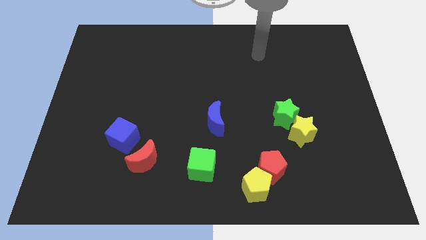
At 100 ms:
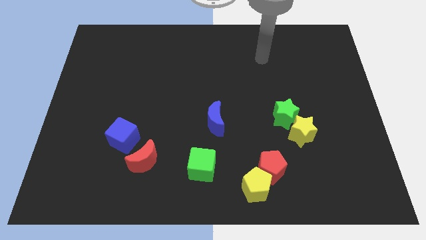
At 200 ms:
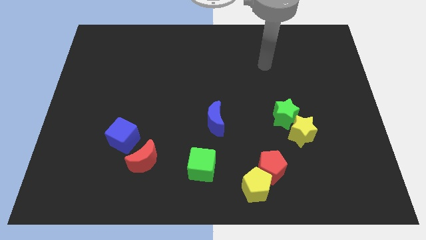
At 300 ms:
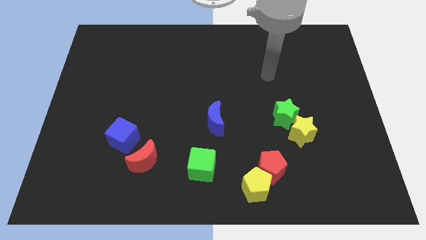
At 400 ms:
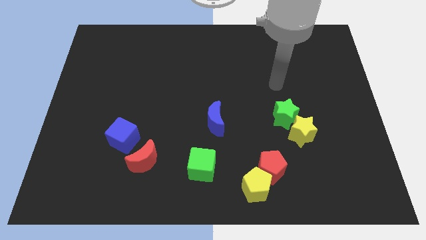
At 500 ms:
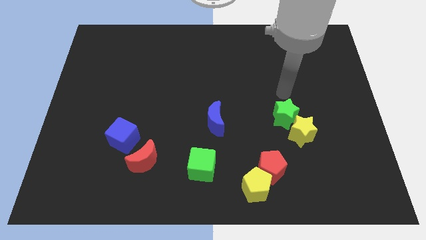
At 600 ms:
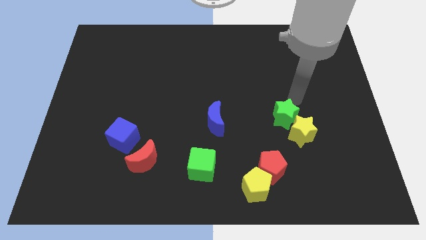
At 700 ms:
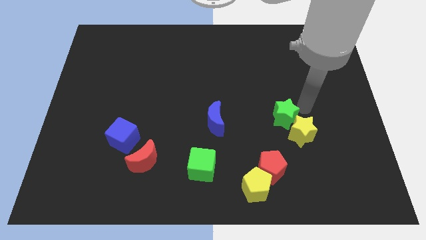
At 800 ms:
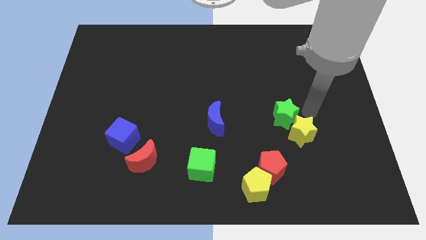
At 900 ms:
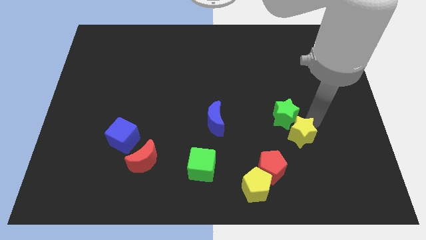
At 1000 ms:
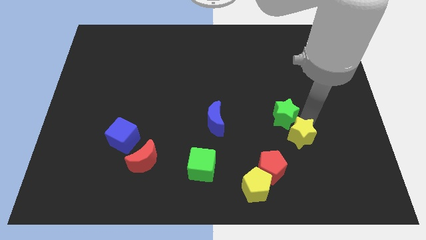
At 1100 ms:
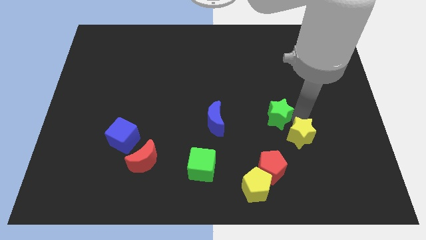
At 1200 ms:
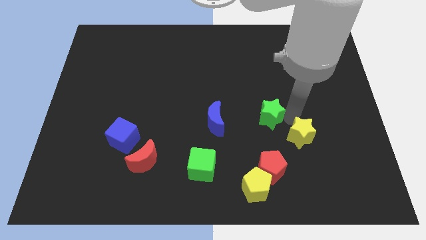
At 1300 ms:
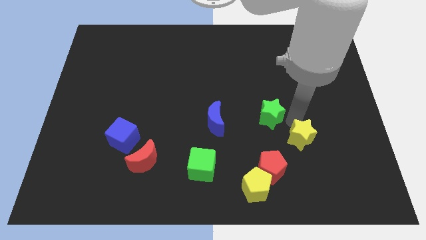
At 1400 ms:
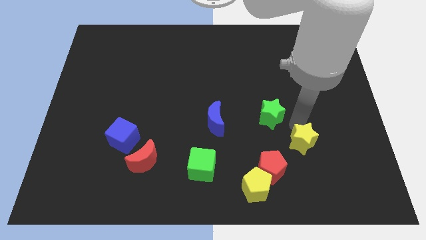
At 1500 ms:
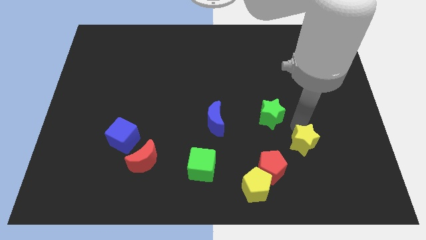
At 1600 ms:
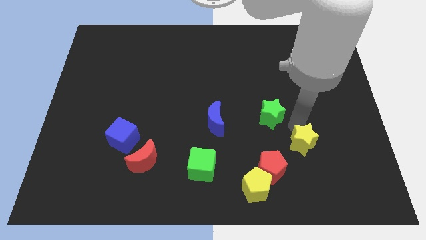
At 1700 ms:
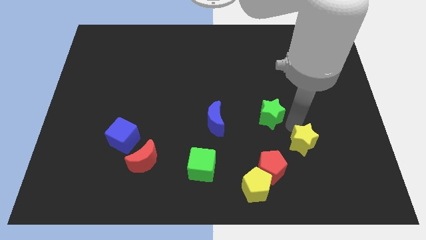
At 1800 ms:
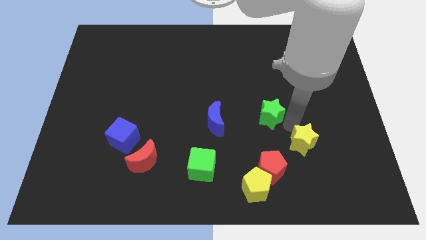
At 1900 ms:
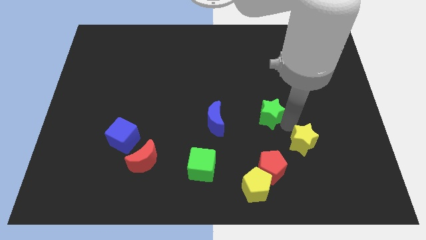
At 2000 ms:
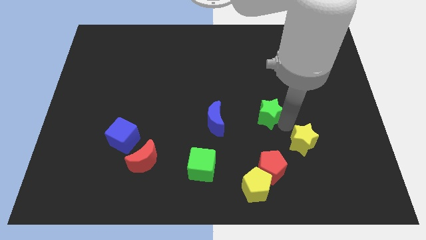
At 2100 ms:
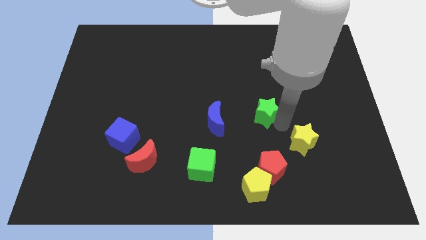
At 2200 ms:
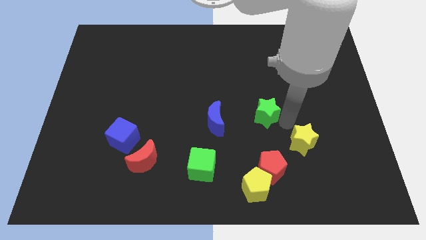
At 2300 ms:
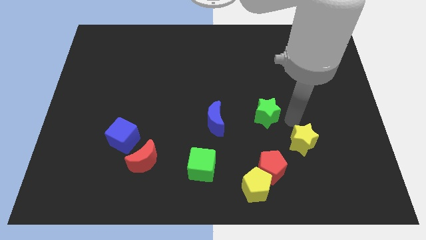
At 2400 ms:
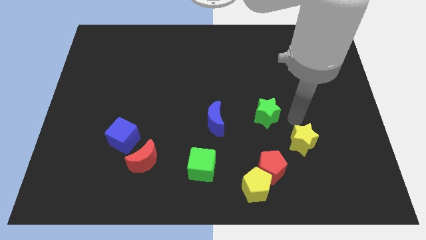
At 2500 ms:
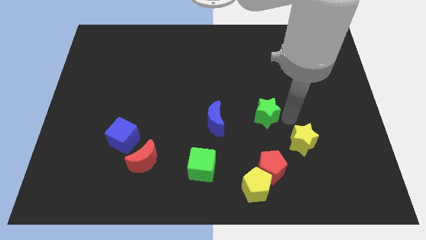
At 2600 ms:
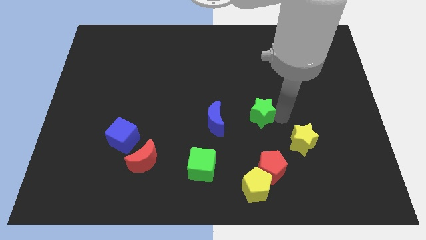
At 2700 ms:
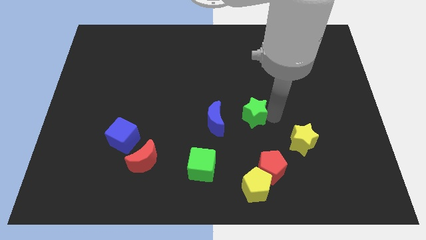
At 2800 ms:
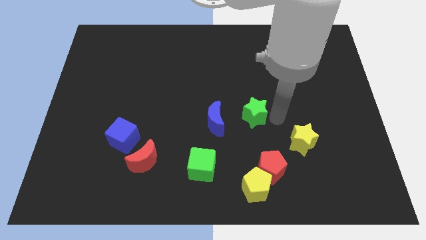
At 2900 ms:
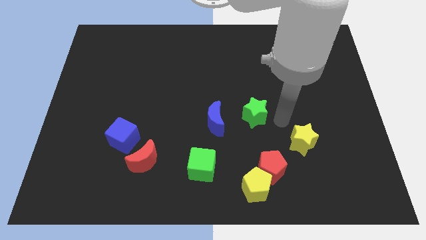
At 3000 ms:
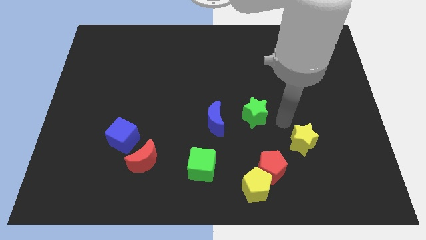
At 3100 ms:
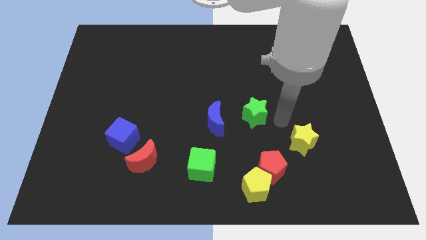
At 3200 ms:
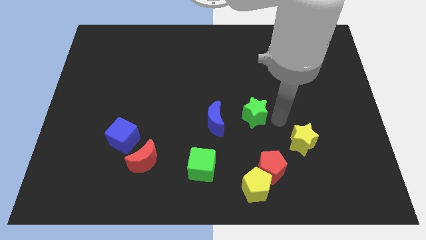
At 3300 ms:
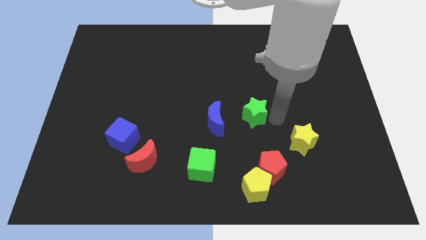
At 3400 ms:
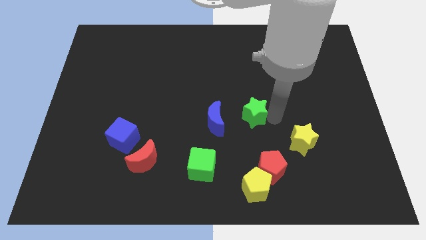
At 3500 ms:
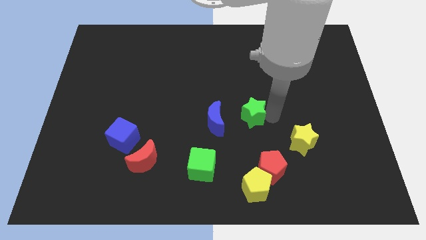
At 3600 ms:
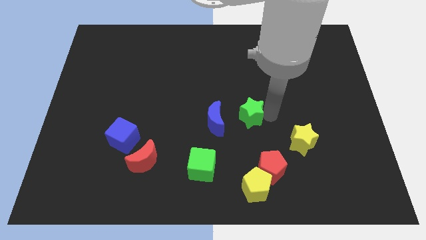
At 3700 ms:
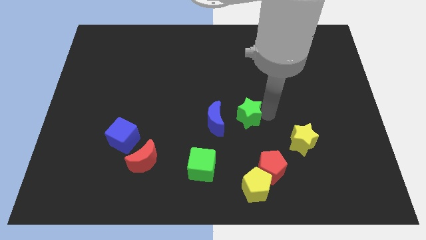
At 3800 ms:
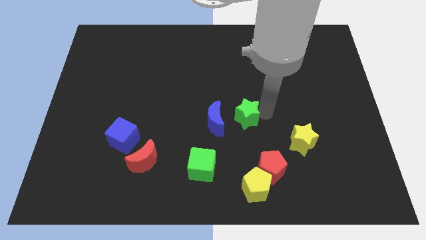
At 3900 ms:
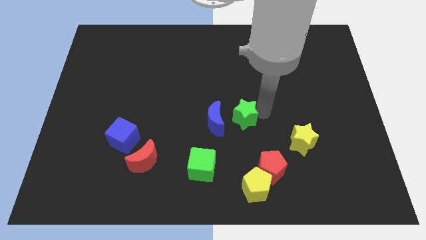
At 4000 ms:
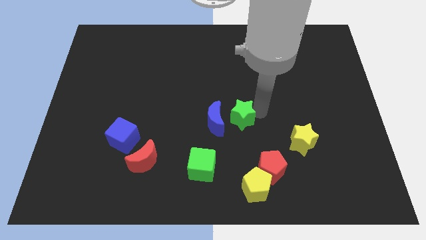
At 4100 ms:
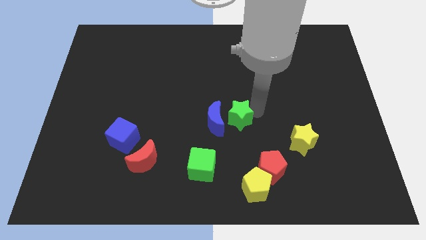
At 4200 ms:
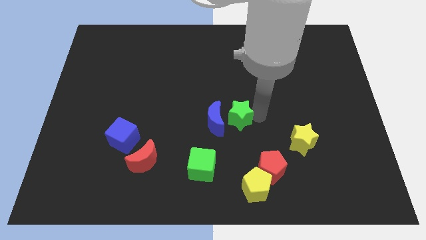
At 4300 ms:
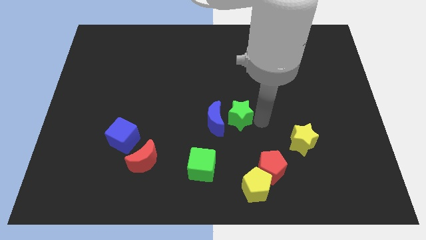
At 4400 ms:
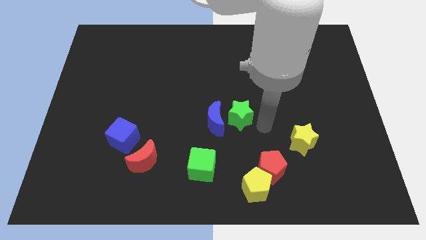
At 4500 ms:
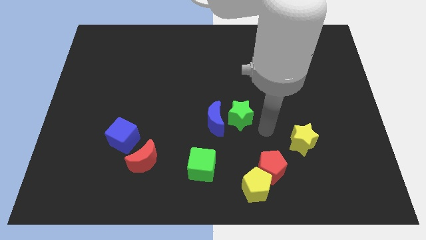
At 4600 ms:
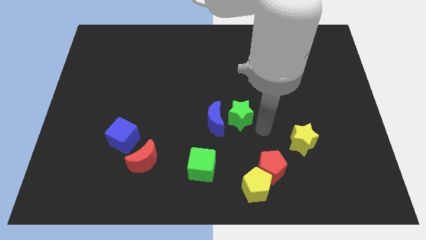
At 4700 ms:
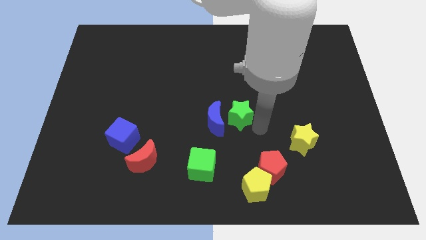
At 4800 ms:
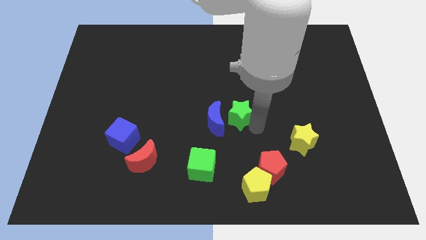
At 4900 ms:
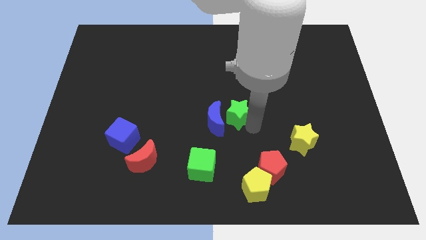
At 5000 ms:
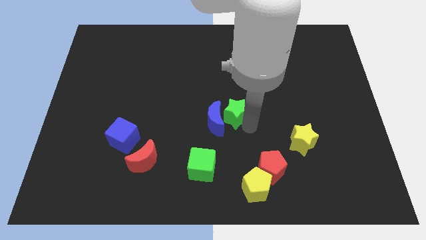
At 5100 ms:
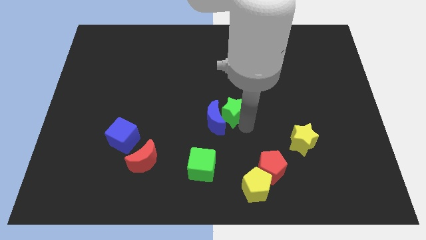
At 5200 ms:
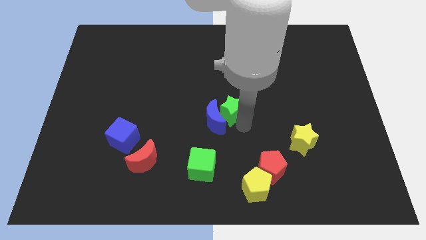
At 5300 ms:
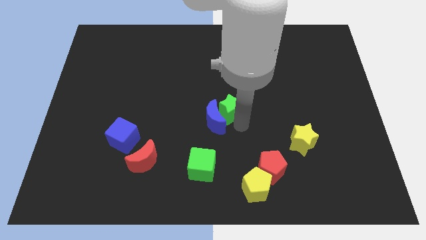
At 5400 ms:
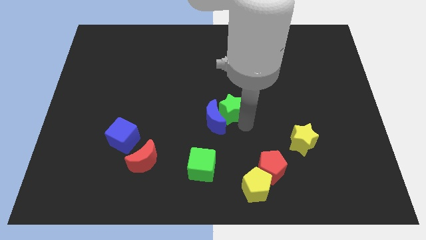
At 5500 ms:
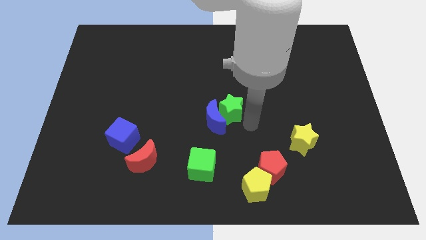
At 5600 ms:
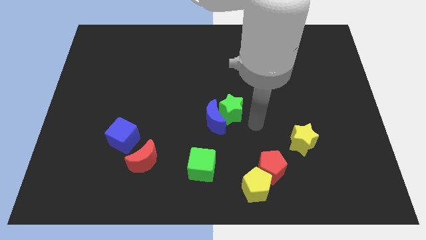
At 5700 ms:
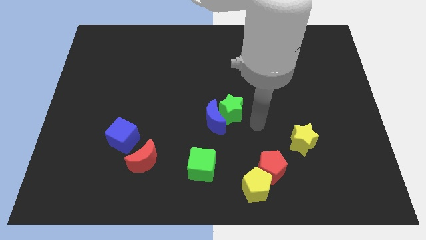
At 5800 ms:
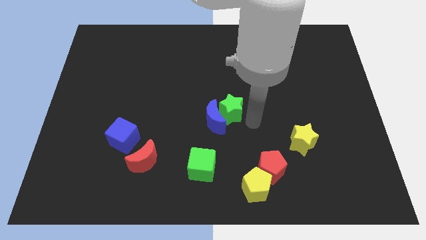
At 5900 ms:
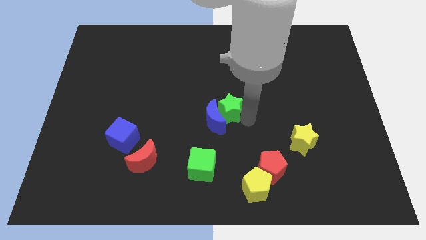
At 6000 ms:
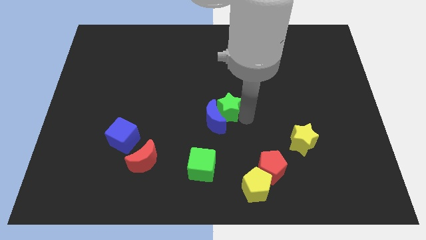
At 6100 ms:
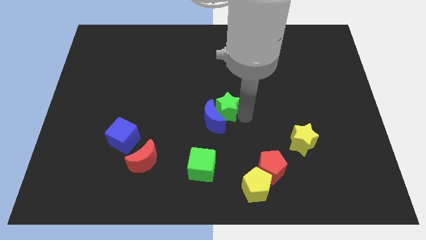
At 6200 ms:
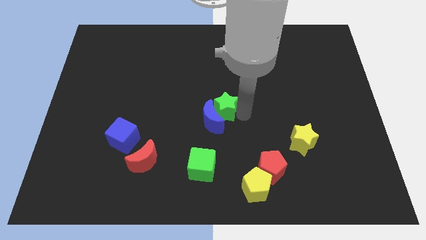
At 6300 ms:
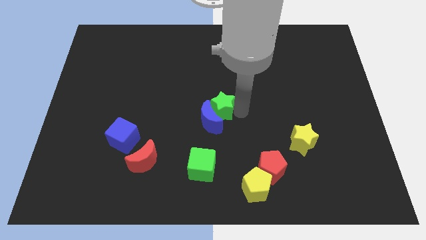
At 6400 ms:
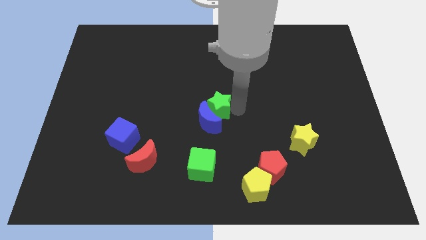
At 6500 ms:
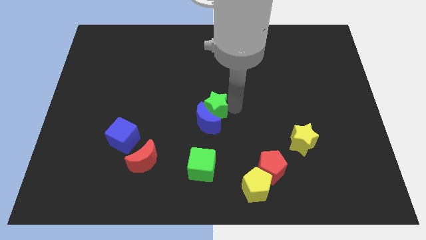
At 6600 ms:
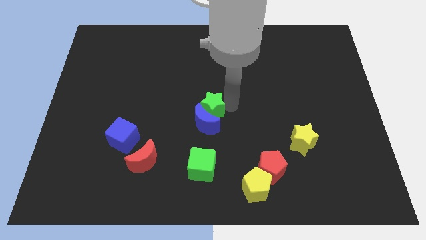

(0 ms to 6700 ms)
slide the green star to the top left of the blue moon

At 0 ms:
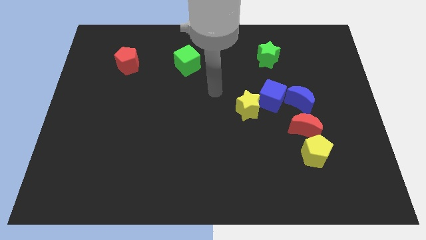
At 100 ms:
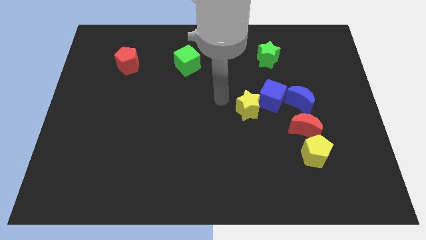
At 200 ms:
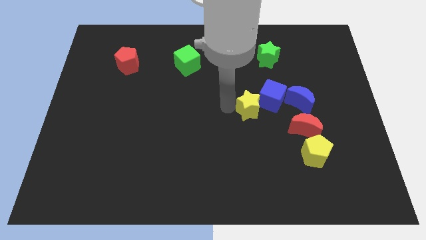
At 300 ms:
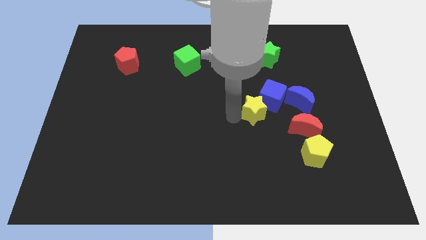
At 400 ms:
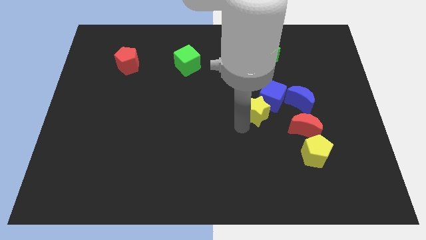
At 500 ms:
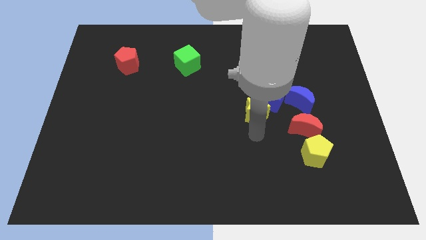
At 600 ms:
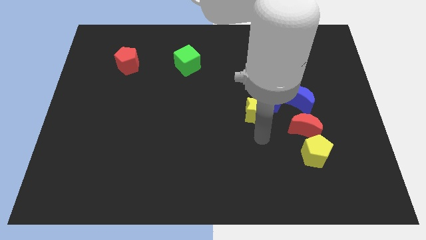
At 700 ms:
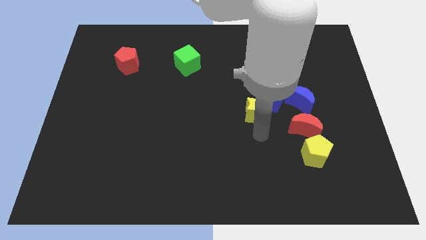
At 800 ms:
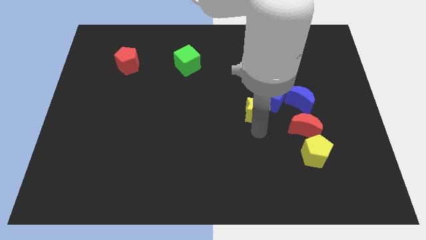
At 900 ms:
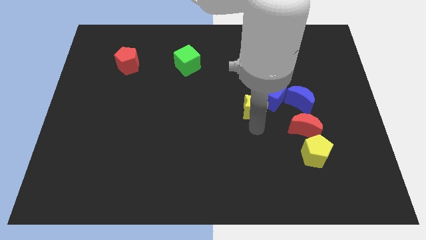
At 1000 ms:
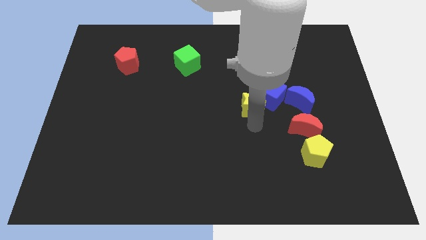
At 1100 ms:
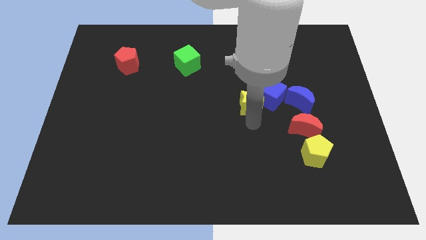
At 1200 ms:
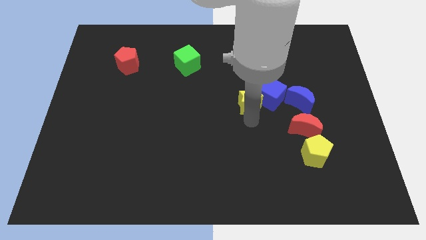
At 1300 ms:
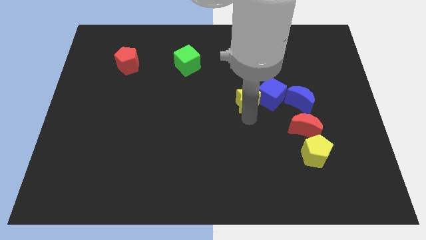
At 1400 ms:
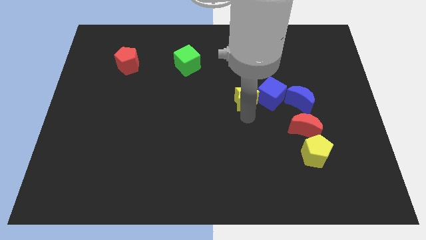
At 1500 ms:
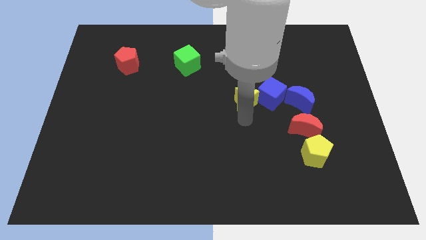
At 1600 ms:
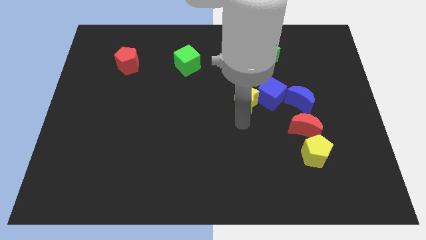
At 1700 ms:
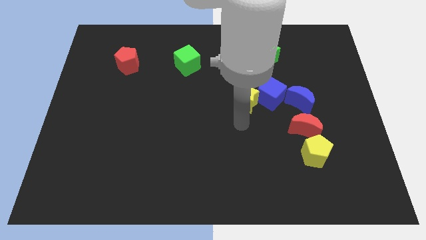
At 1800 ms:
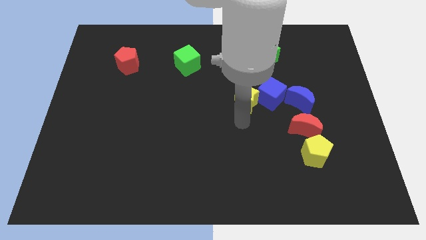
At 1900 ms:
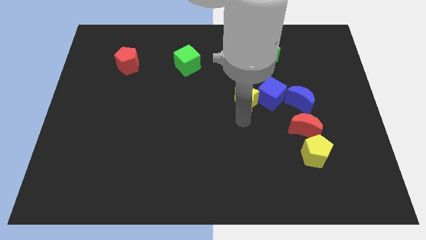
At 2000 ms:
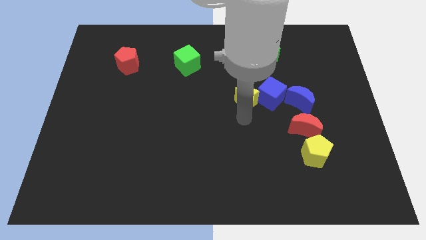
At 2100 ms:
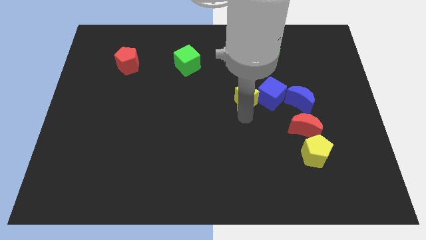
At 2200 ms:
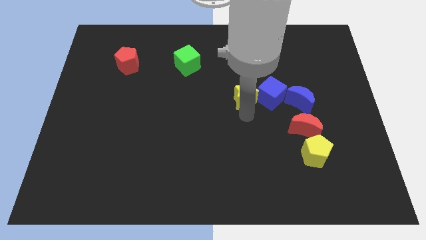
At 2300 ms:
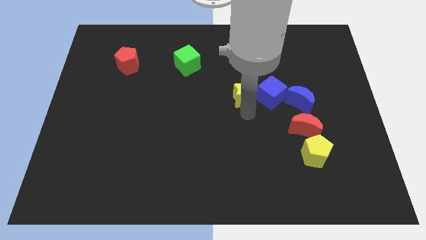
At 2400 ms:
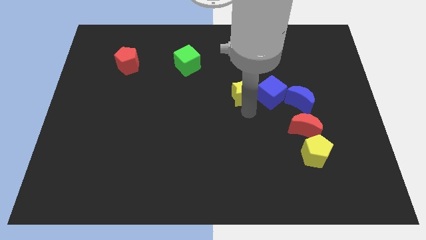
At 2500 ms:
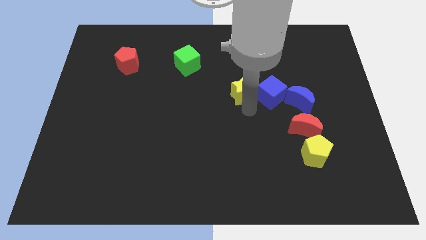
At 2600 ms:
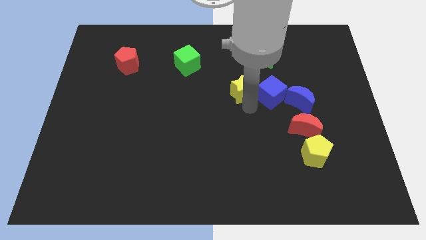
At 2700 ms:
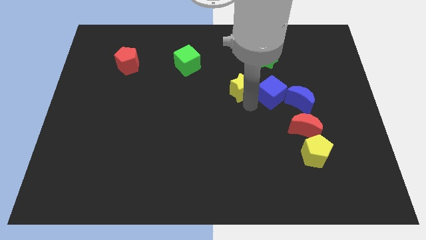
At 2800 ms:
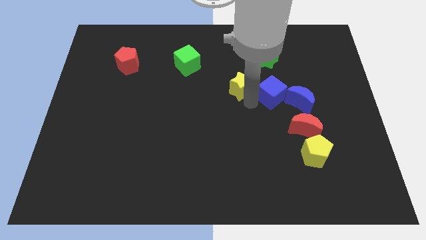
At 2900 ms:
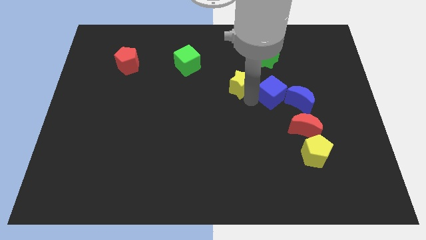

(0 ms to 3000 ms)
push the yellow star to the bottom left of the green star
